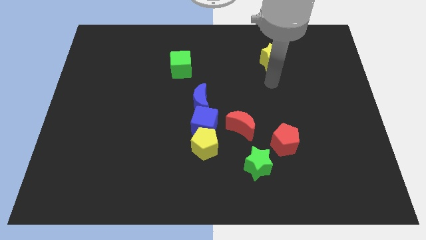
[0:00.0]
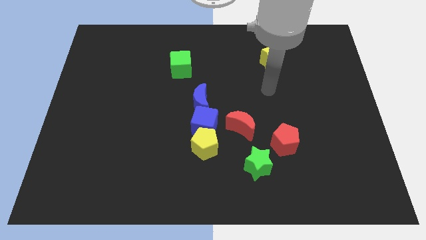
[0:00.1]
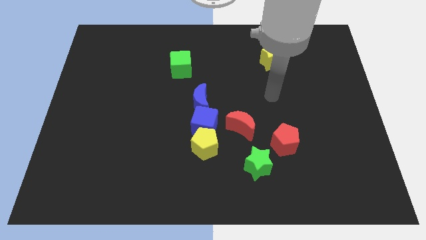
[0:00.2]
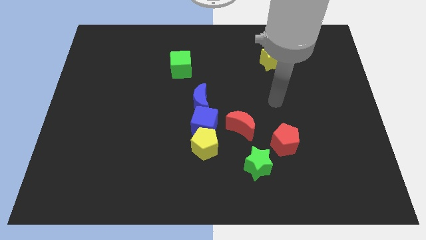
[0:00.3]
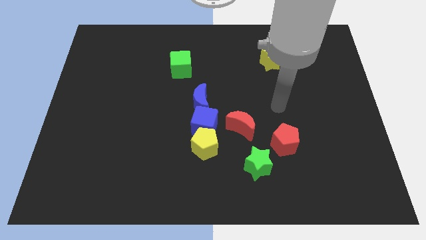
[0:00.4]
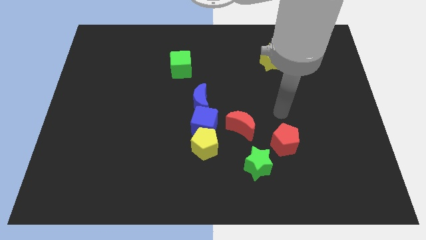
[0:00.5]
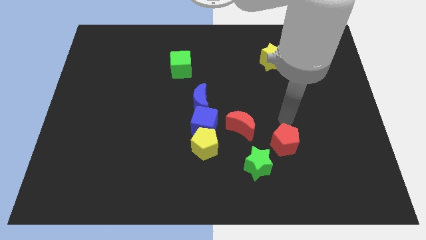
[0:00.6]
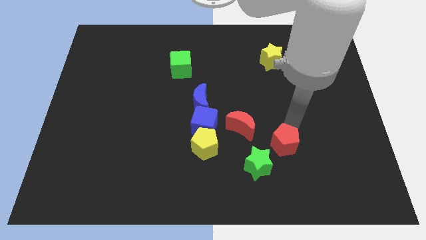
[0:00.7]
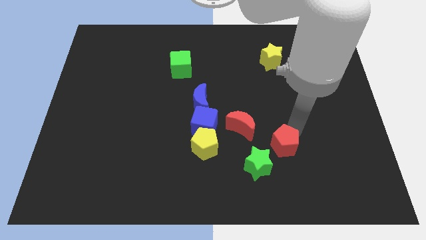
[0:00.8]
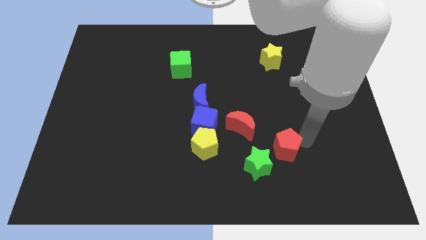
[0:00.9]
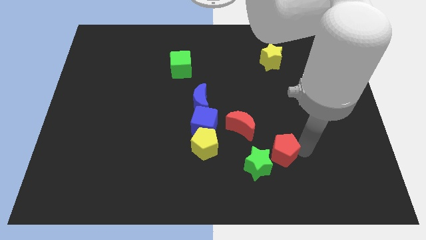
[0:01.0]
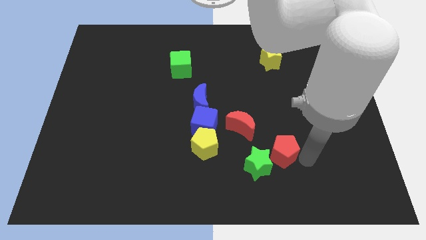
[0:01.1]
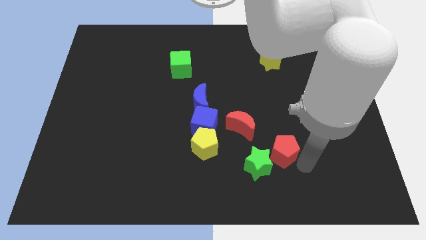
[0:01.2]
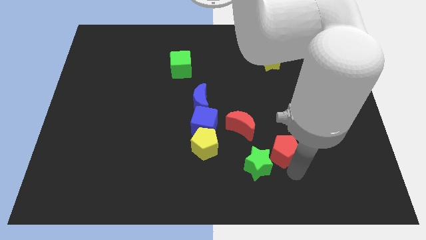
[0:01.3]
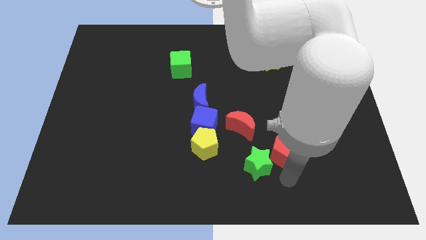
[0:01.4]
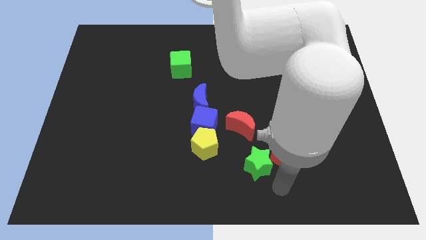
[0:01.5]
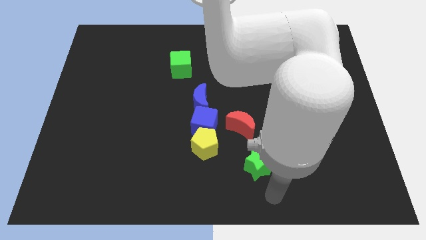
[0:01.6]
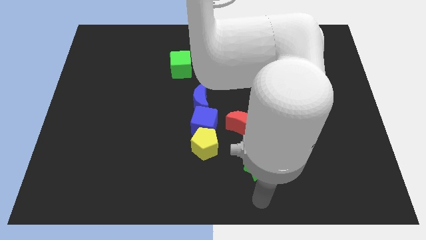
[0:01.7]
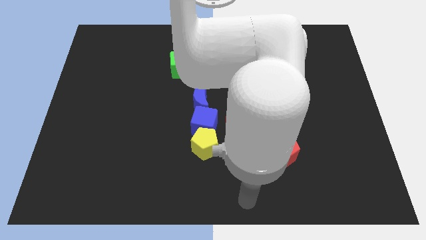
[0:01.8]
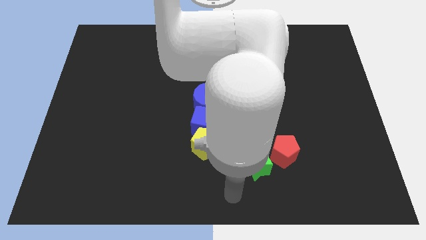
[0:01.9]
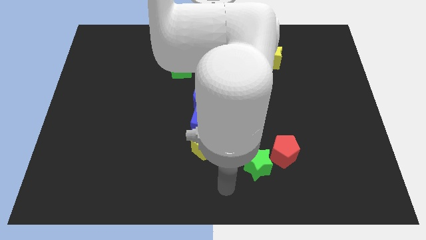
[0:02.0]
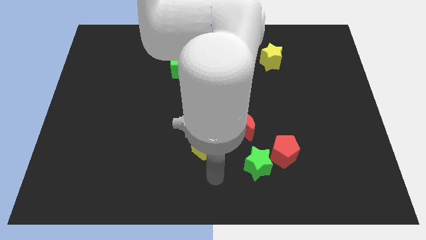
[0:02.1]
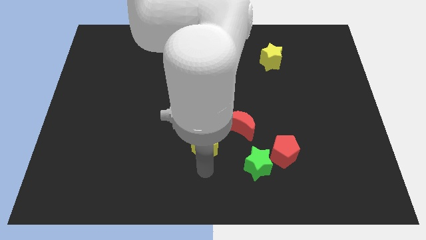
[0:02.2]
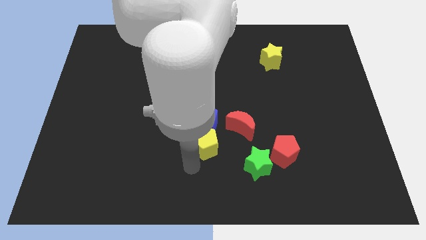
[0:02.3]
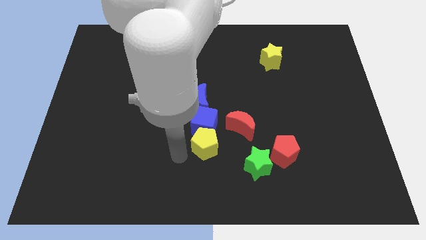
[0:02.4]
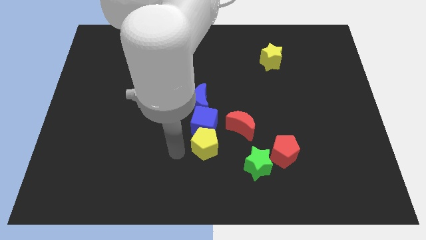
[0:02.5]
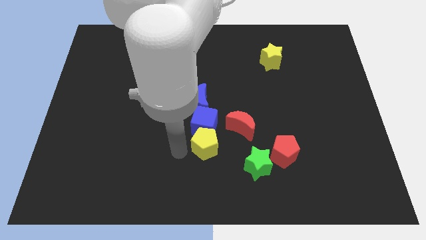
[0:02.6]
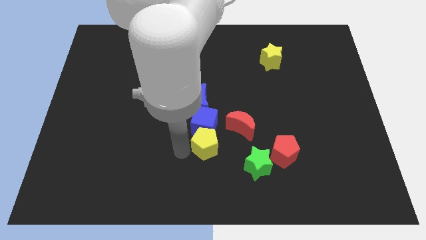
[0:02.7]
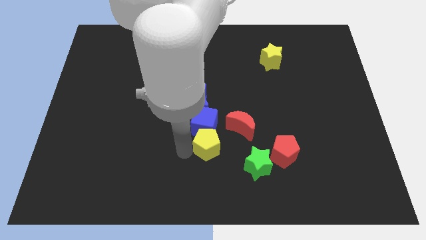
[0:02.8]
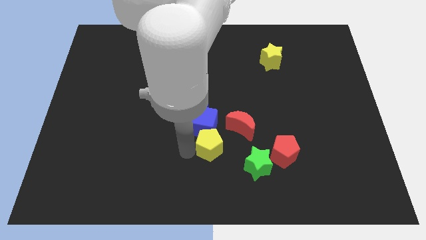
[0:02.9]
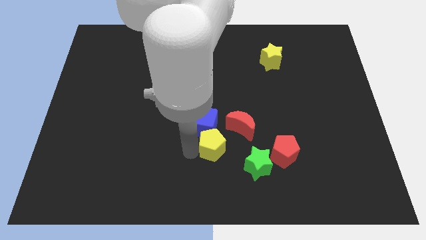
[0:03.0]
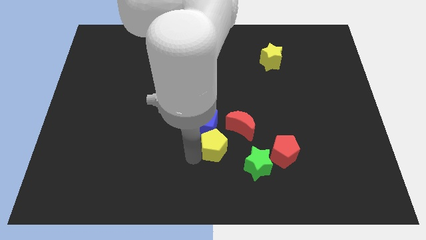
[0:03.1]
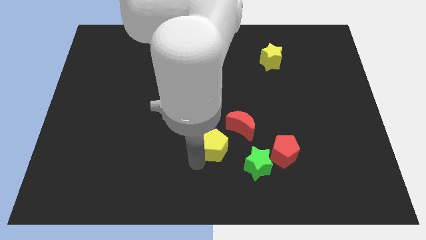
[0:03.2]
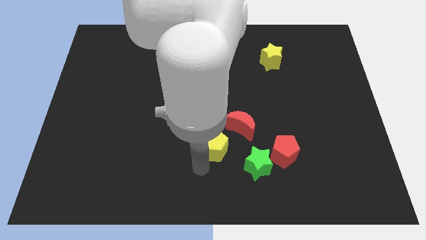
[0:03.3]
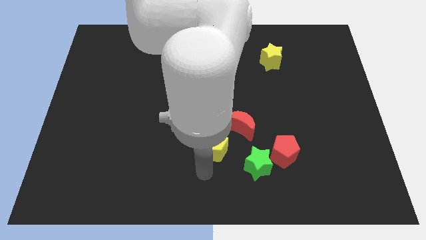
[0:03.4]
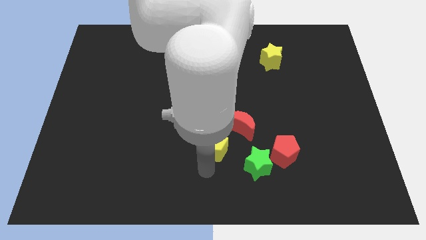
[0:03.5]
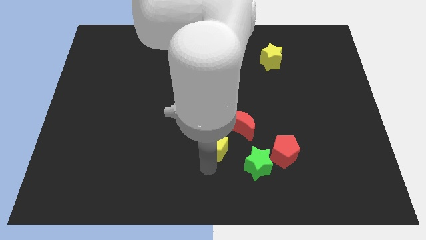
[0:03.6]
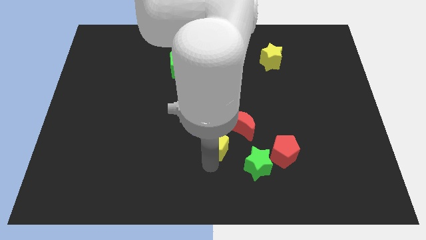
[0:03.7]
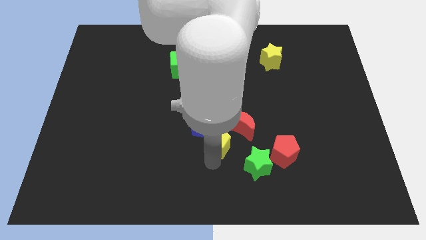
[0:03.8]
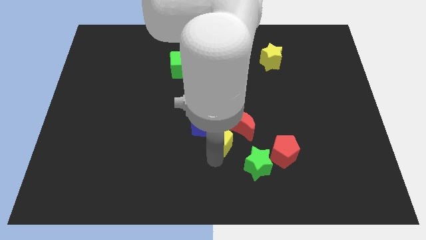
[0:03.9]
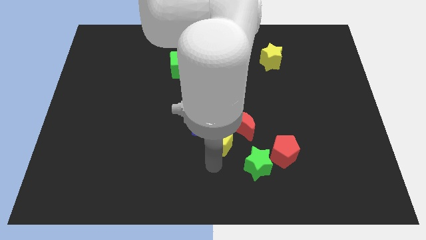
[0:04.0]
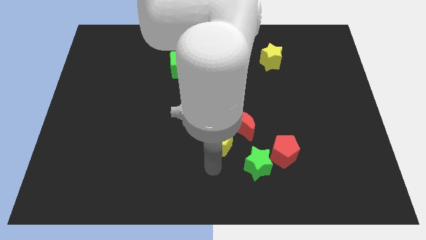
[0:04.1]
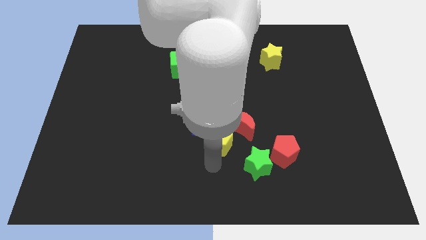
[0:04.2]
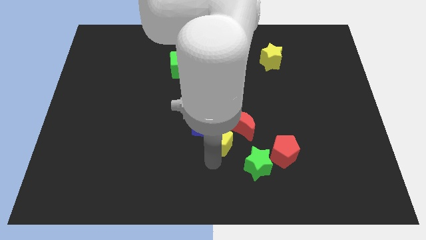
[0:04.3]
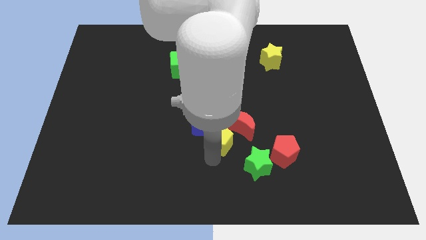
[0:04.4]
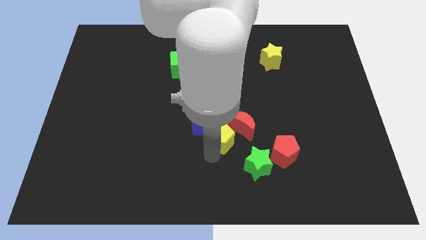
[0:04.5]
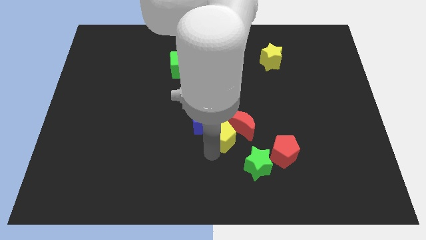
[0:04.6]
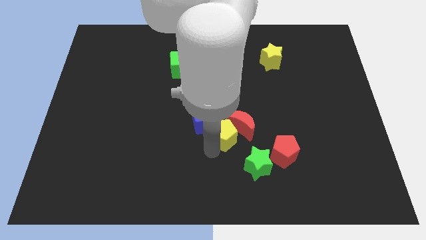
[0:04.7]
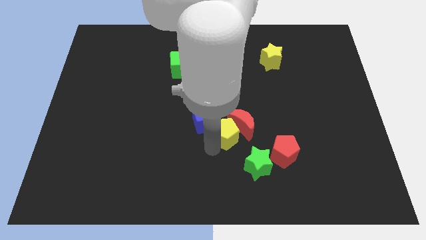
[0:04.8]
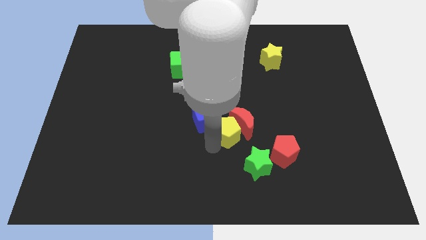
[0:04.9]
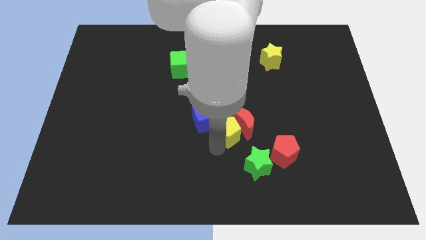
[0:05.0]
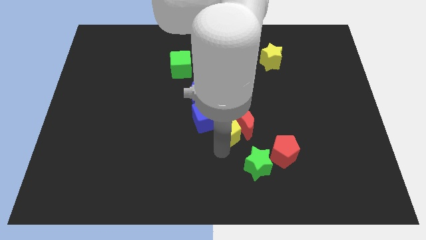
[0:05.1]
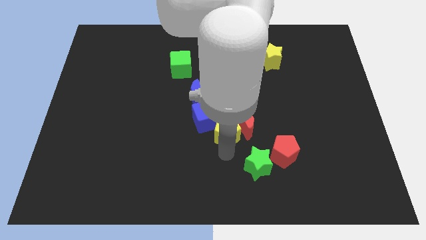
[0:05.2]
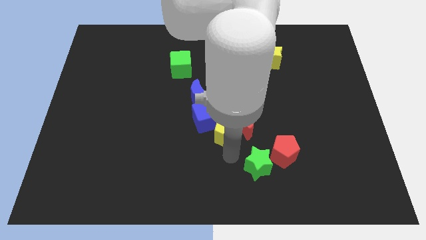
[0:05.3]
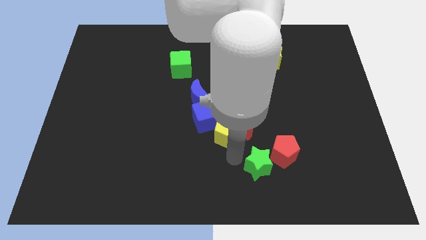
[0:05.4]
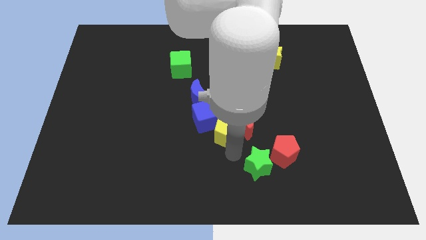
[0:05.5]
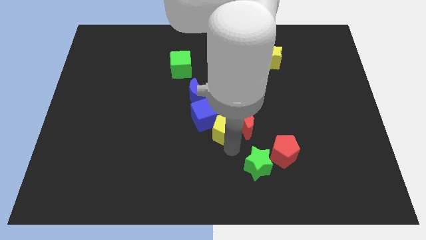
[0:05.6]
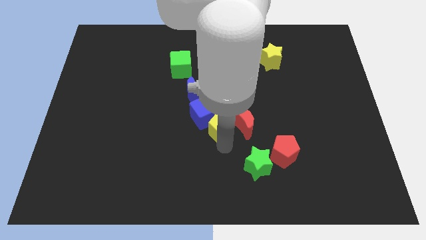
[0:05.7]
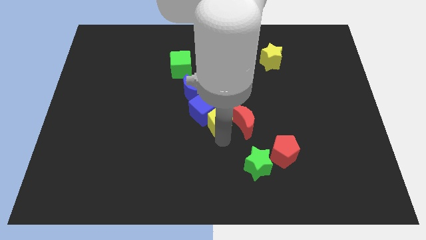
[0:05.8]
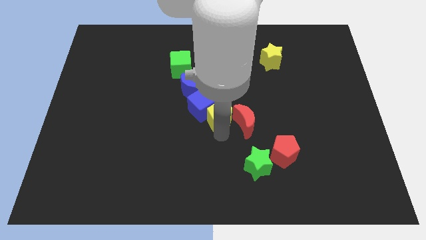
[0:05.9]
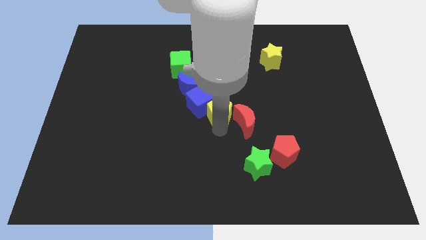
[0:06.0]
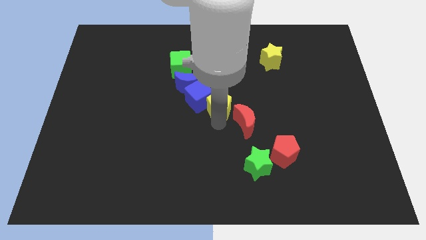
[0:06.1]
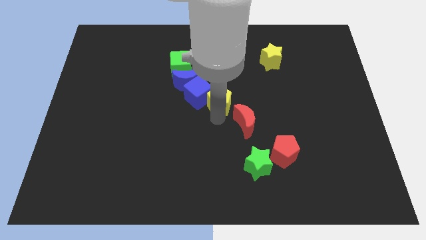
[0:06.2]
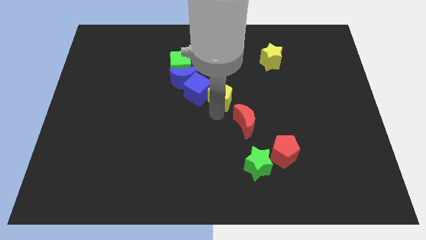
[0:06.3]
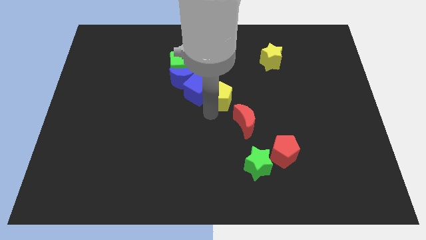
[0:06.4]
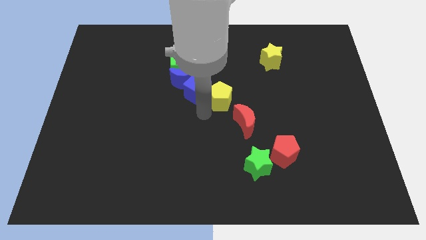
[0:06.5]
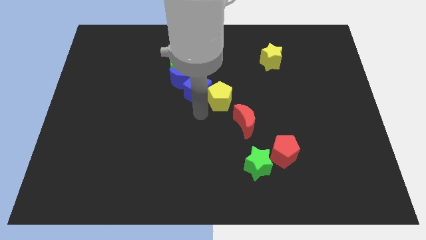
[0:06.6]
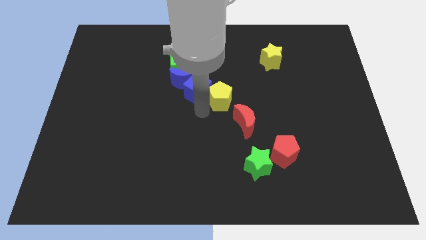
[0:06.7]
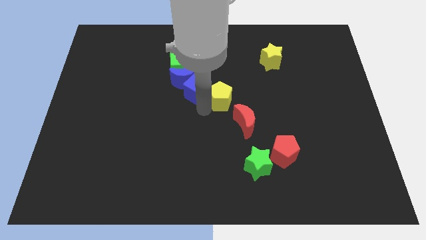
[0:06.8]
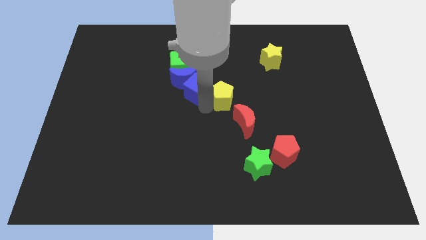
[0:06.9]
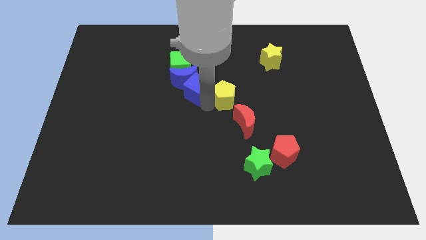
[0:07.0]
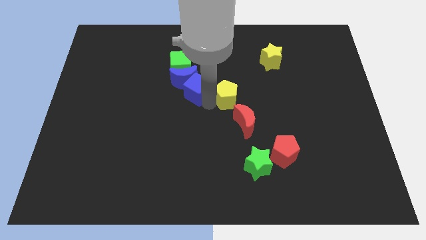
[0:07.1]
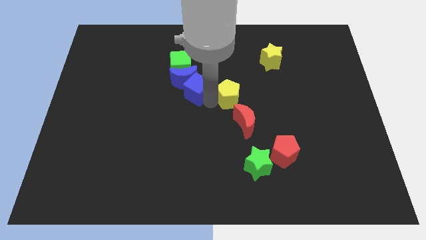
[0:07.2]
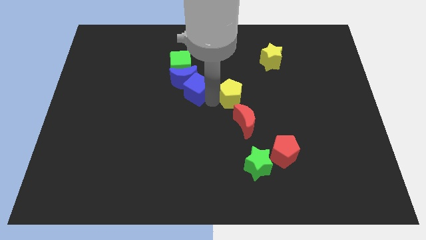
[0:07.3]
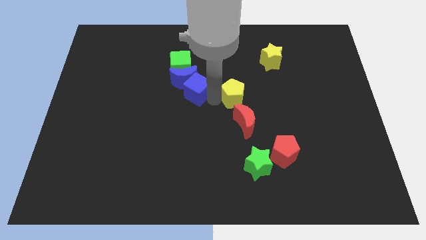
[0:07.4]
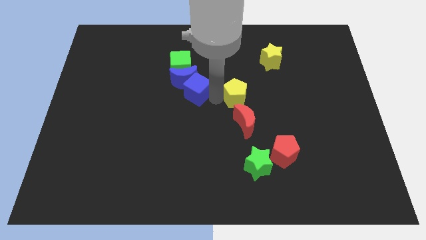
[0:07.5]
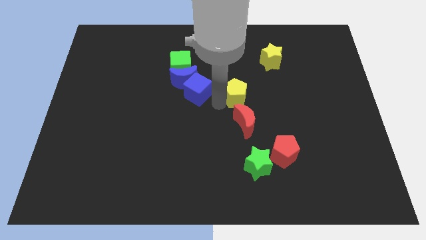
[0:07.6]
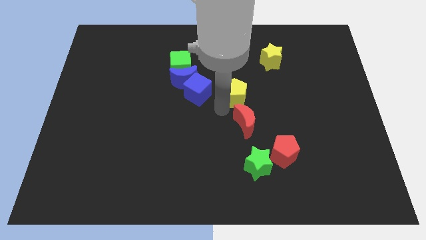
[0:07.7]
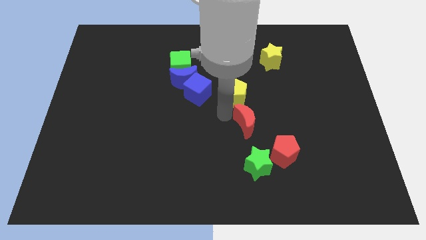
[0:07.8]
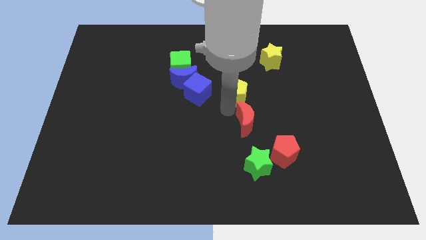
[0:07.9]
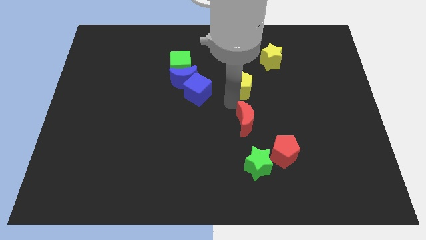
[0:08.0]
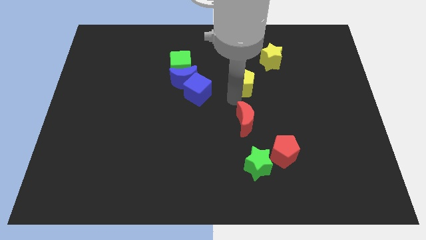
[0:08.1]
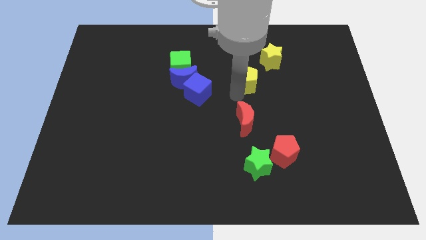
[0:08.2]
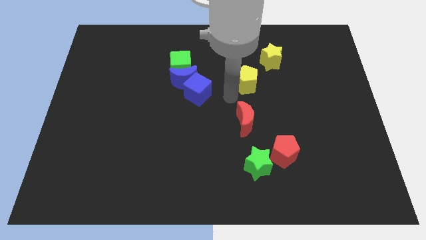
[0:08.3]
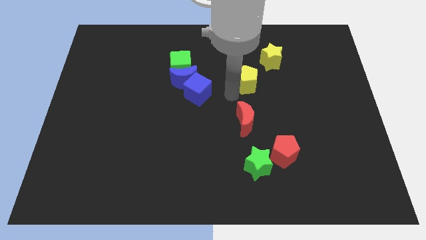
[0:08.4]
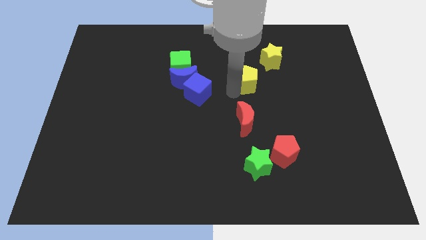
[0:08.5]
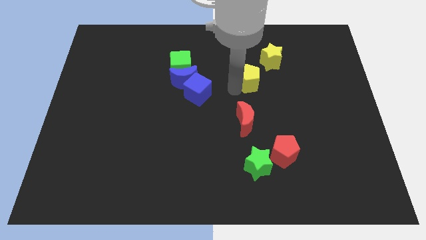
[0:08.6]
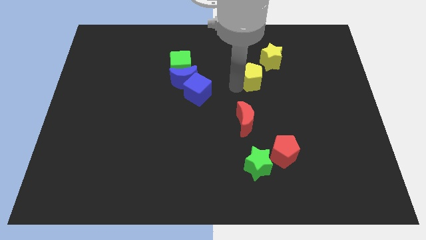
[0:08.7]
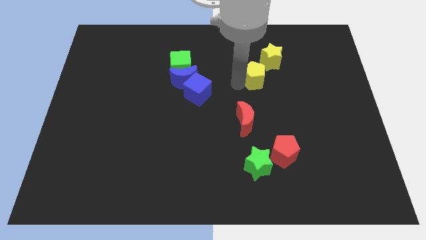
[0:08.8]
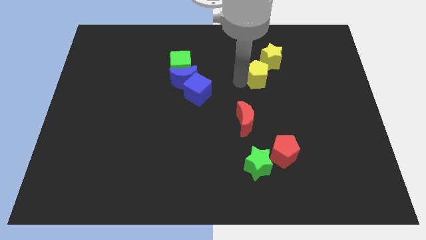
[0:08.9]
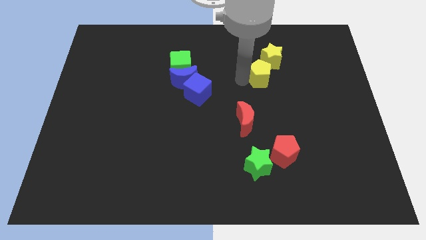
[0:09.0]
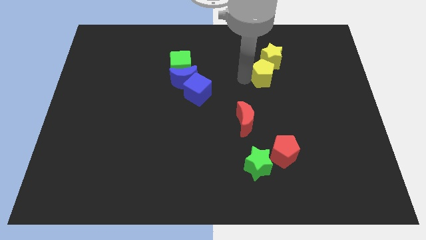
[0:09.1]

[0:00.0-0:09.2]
push the yellow pentagon to the yellow star
